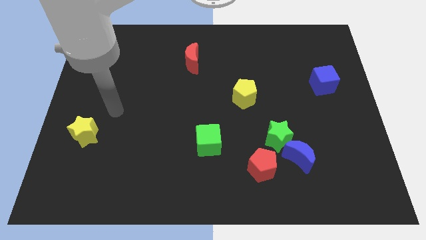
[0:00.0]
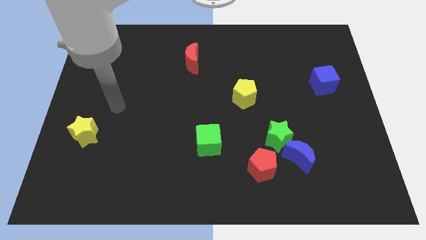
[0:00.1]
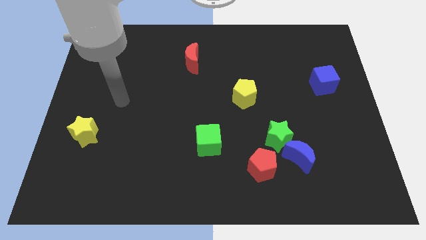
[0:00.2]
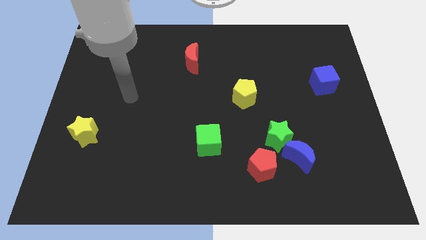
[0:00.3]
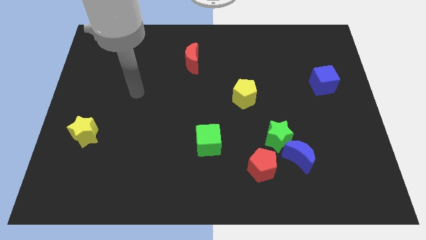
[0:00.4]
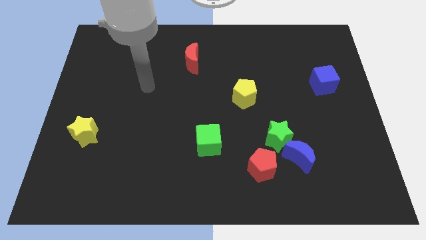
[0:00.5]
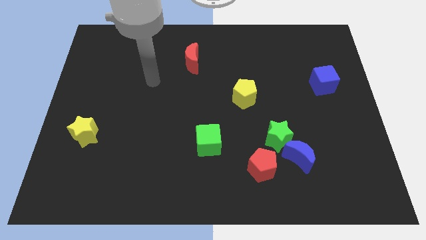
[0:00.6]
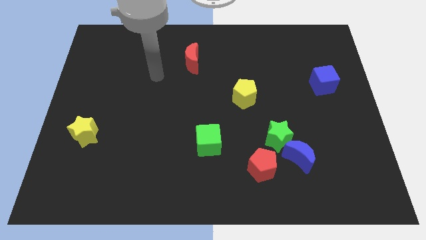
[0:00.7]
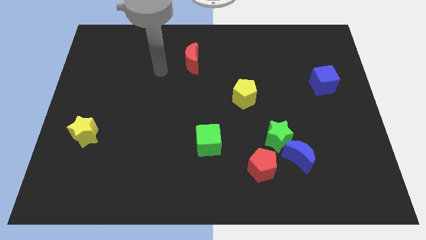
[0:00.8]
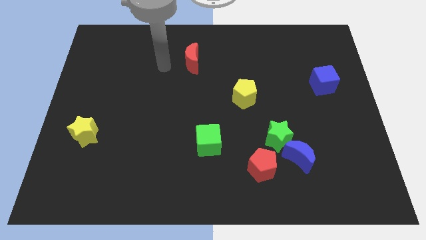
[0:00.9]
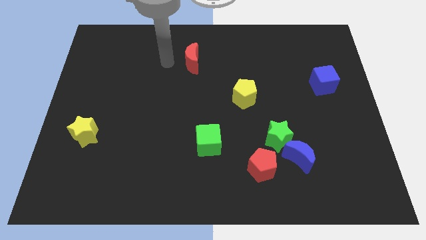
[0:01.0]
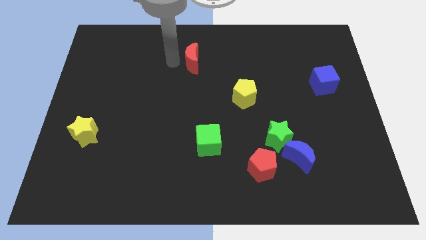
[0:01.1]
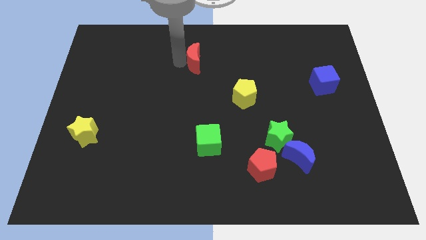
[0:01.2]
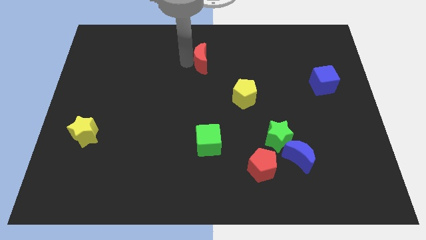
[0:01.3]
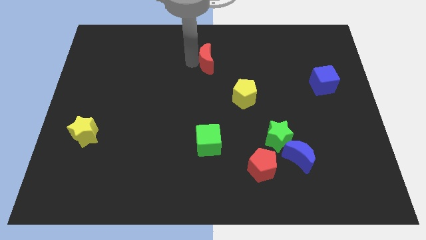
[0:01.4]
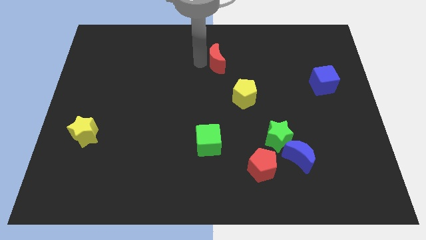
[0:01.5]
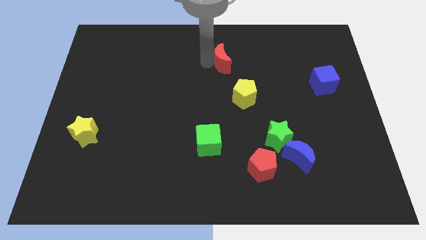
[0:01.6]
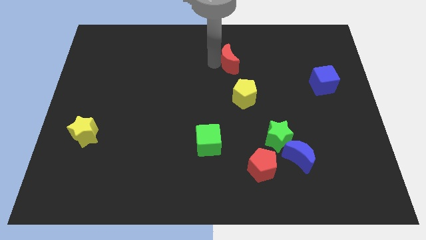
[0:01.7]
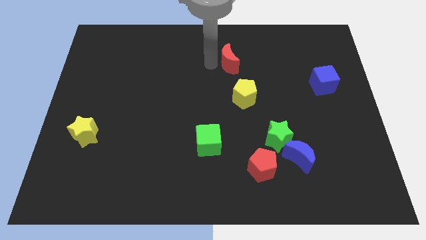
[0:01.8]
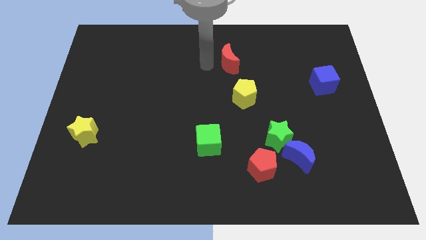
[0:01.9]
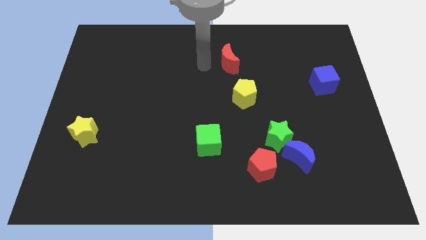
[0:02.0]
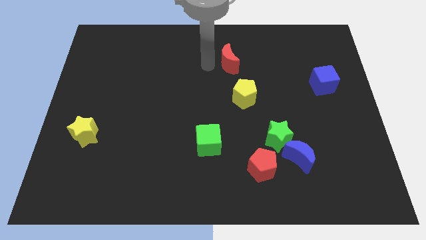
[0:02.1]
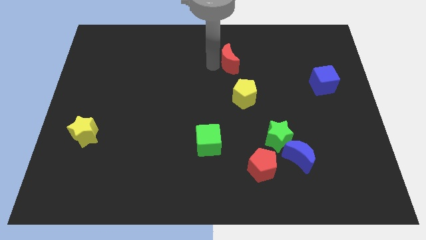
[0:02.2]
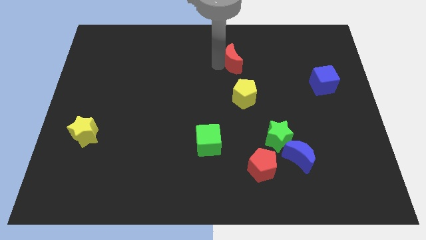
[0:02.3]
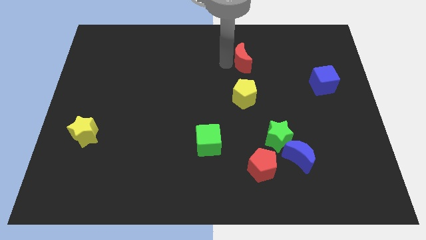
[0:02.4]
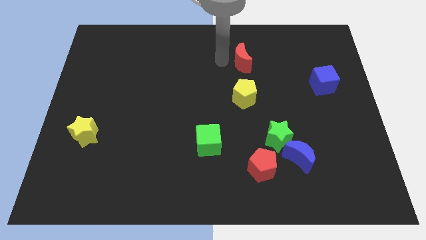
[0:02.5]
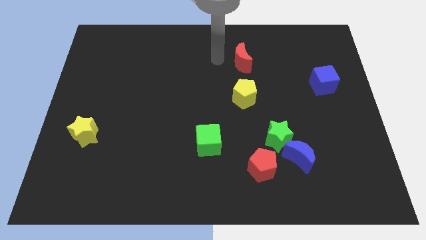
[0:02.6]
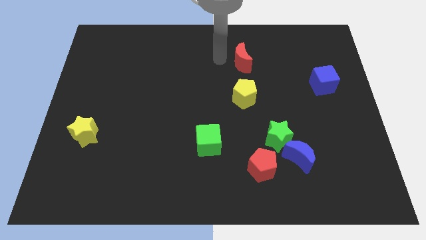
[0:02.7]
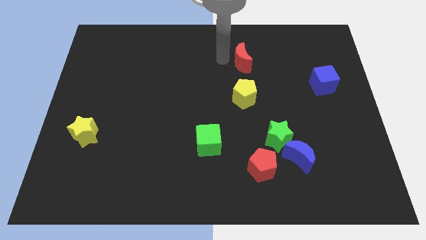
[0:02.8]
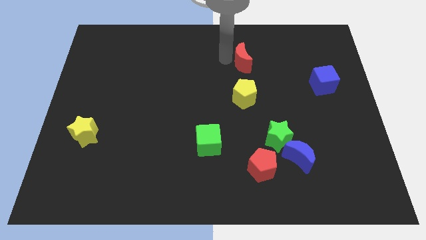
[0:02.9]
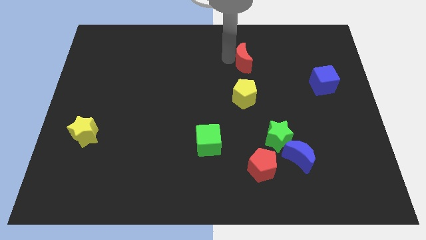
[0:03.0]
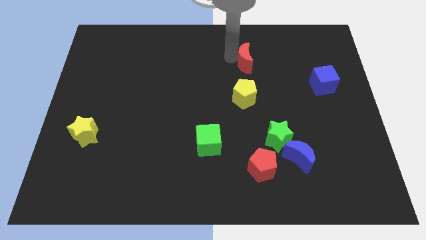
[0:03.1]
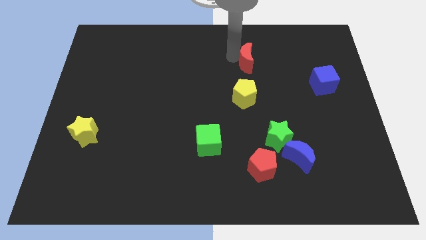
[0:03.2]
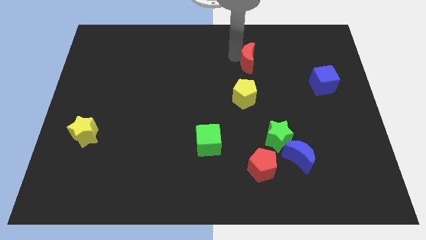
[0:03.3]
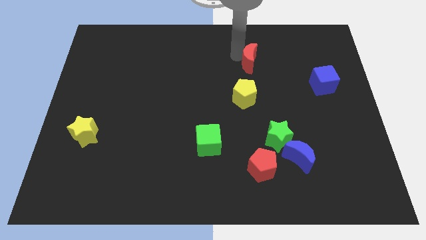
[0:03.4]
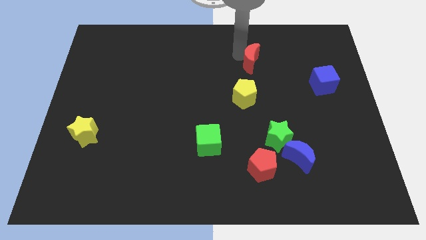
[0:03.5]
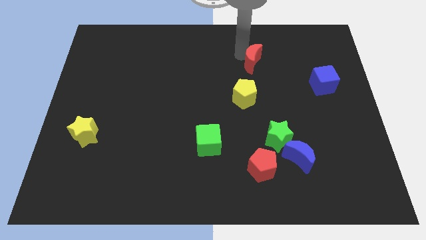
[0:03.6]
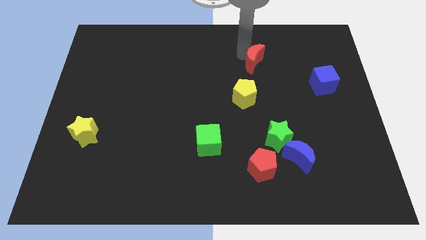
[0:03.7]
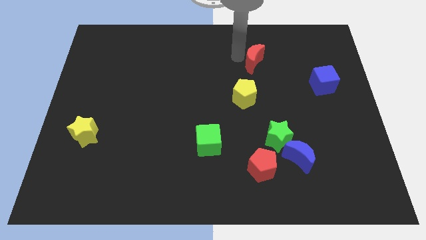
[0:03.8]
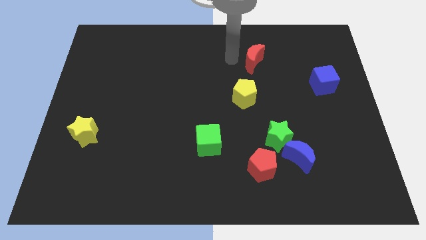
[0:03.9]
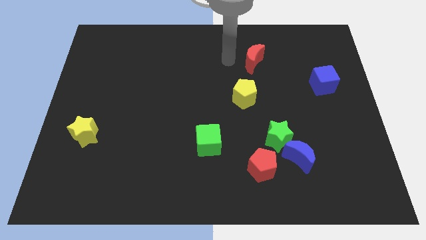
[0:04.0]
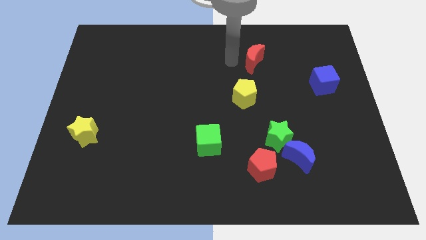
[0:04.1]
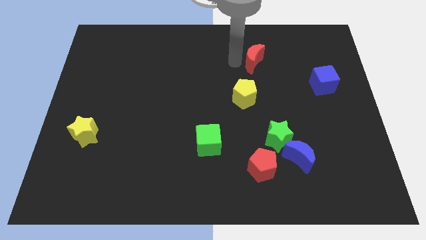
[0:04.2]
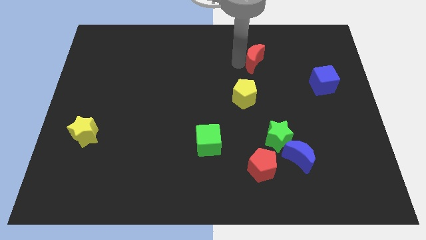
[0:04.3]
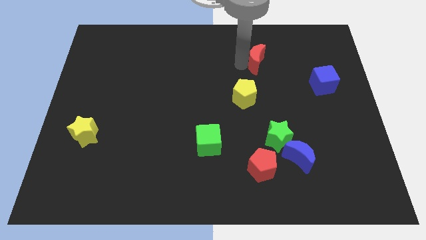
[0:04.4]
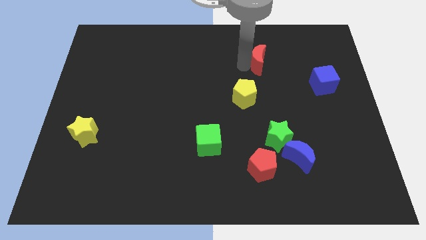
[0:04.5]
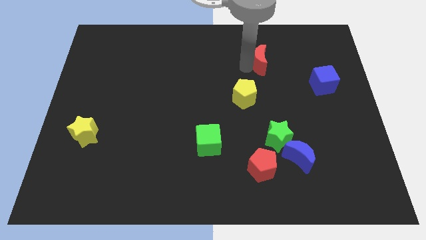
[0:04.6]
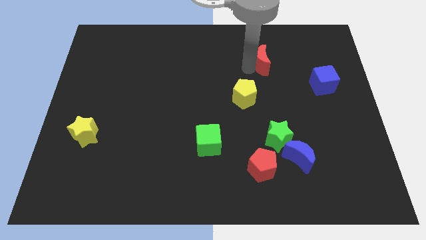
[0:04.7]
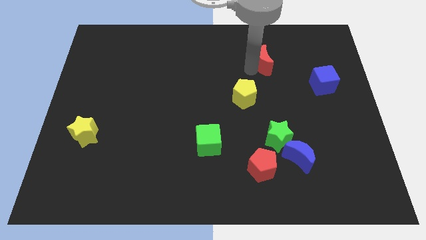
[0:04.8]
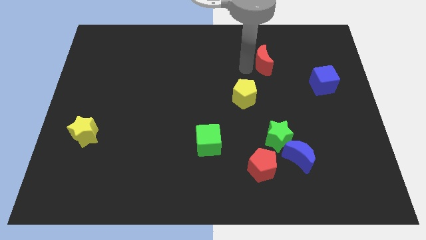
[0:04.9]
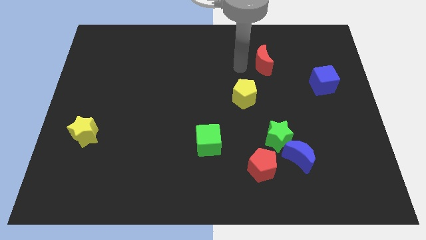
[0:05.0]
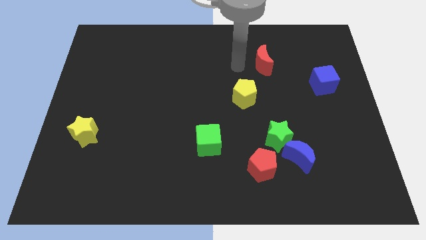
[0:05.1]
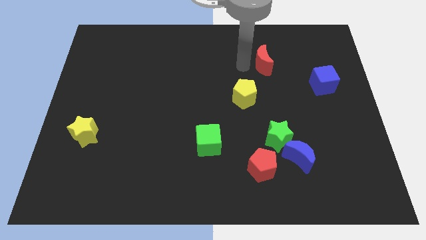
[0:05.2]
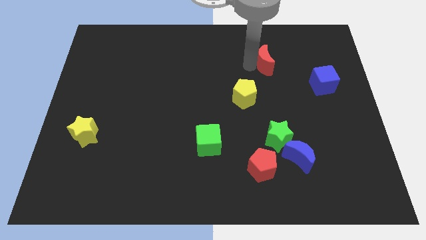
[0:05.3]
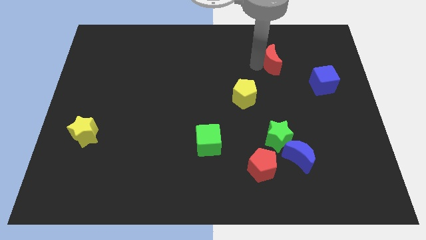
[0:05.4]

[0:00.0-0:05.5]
slide the red moon right

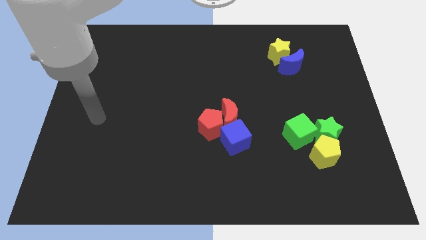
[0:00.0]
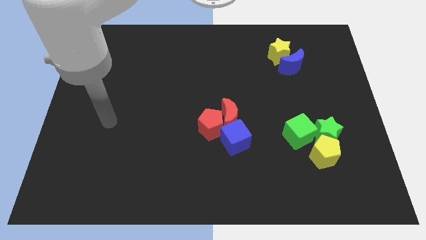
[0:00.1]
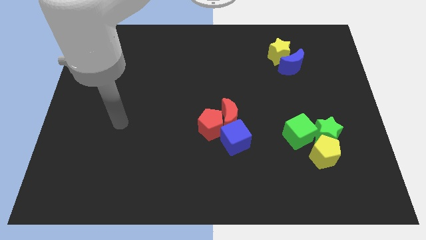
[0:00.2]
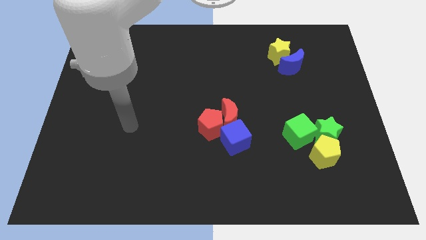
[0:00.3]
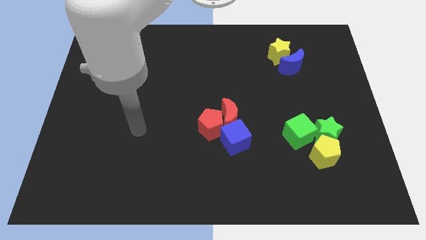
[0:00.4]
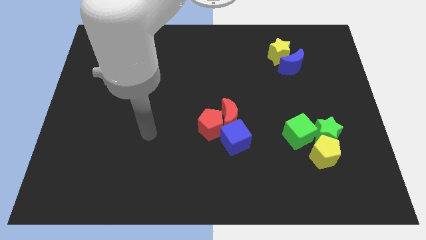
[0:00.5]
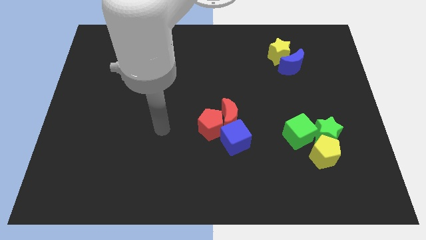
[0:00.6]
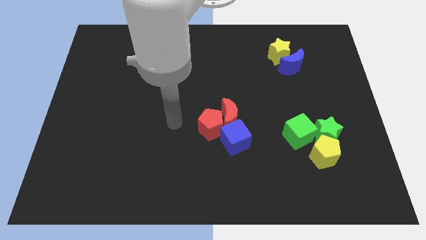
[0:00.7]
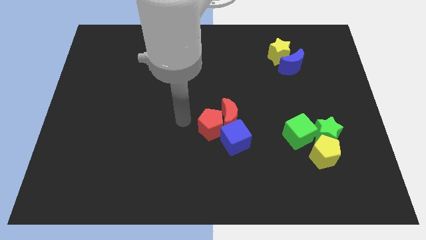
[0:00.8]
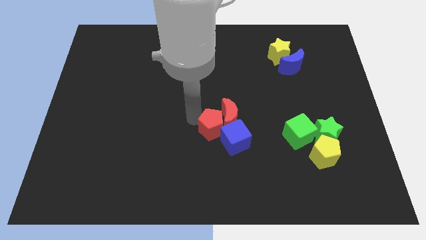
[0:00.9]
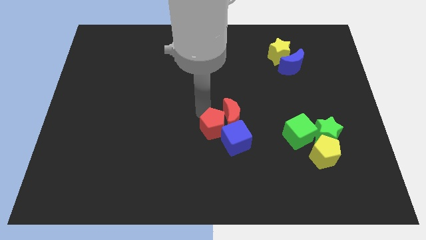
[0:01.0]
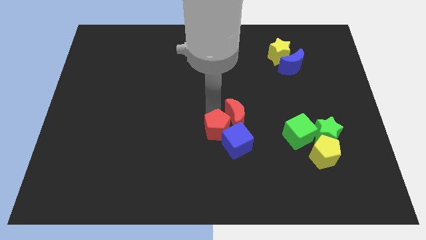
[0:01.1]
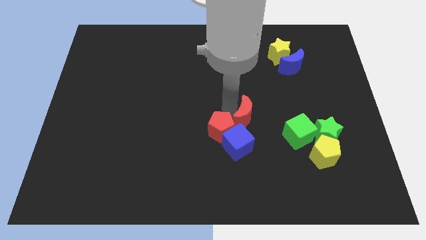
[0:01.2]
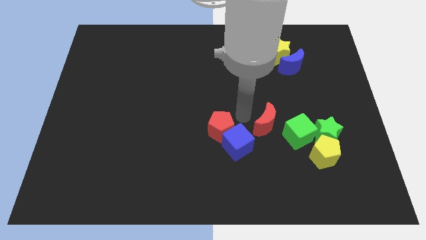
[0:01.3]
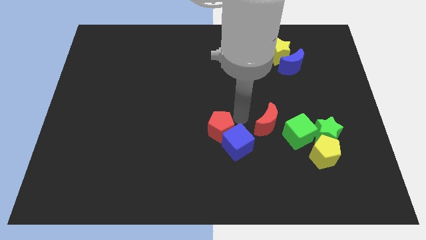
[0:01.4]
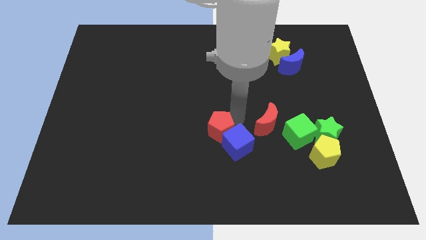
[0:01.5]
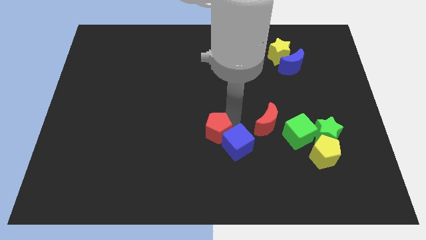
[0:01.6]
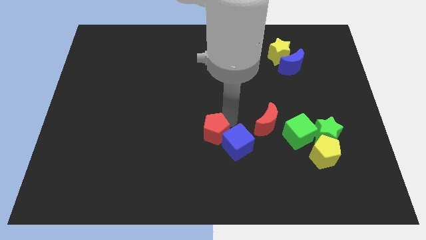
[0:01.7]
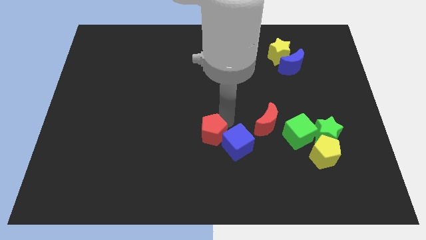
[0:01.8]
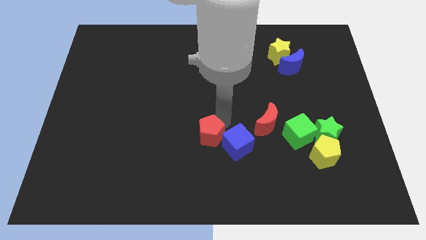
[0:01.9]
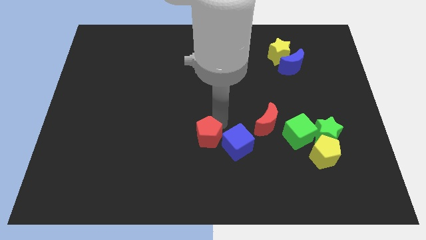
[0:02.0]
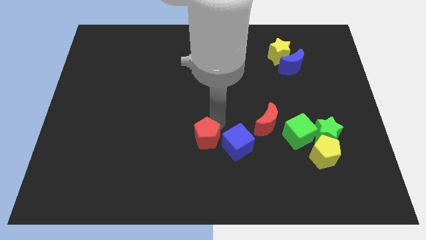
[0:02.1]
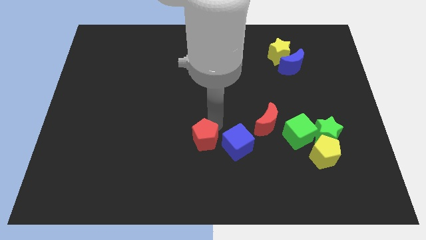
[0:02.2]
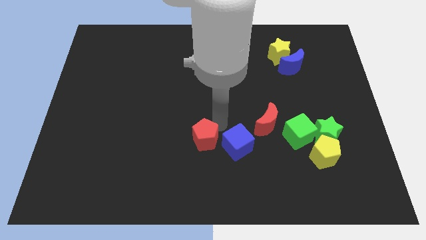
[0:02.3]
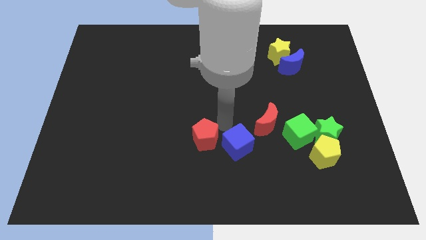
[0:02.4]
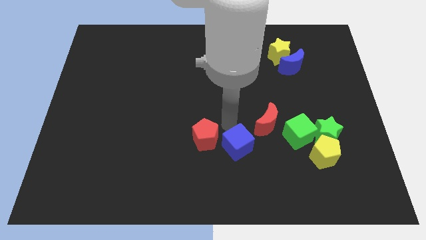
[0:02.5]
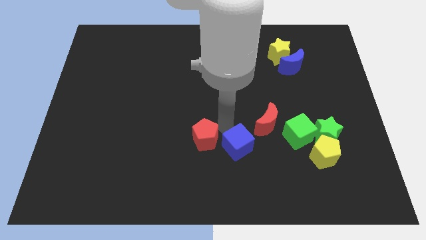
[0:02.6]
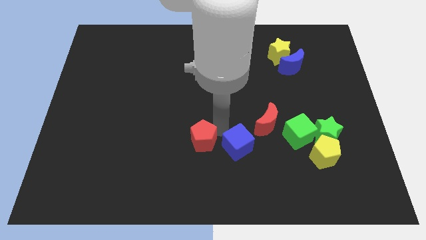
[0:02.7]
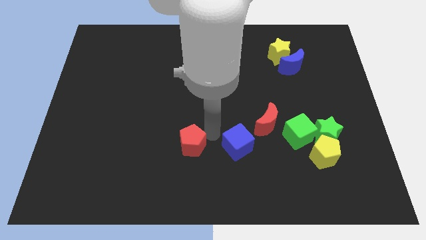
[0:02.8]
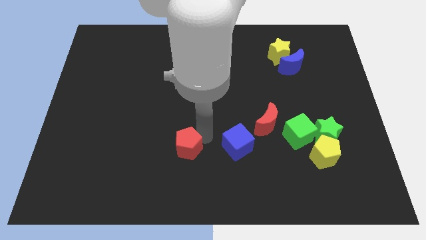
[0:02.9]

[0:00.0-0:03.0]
move the red pentagon diagonally downwards and left a little bit
